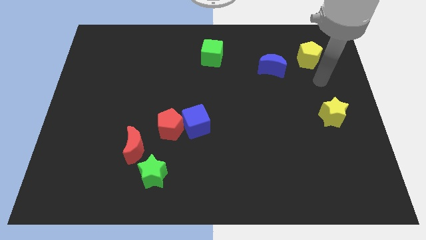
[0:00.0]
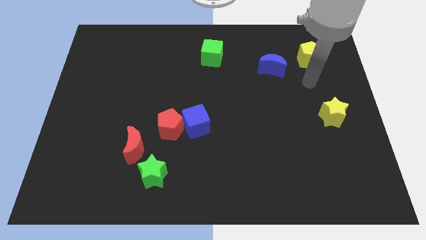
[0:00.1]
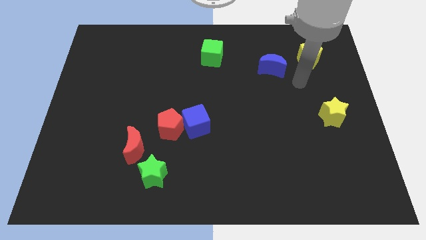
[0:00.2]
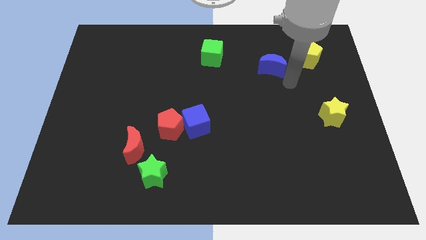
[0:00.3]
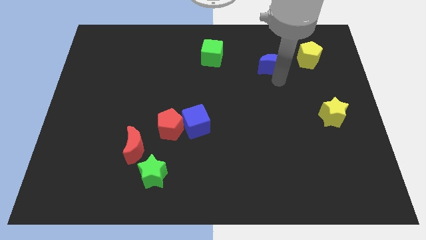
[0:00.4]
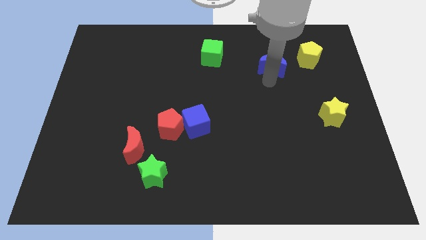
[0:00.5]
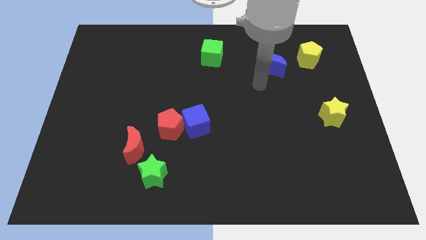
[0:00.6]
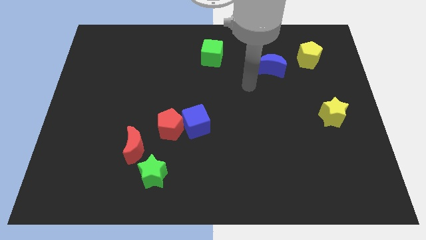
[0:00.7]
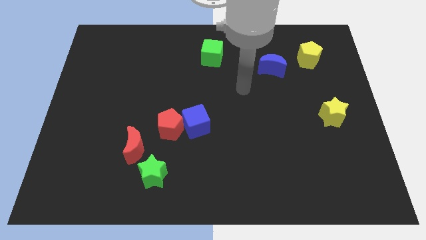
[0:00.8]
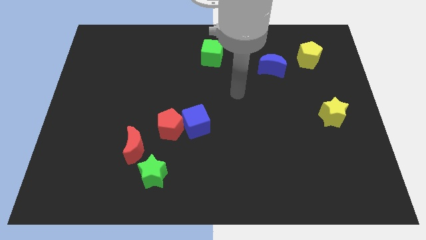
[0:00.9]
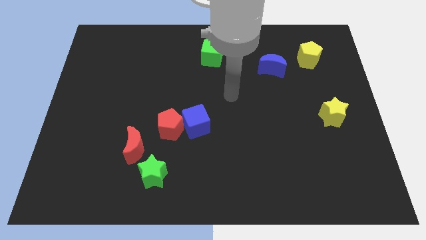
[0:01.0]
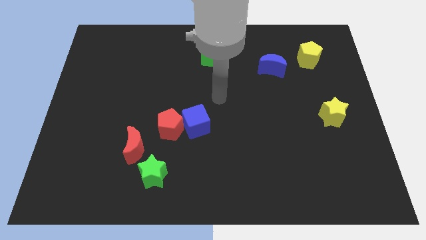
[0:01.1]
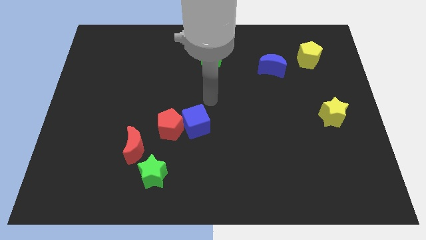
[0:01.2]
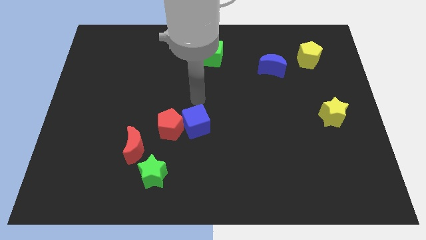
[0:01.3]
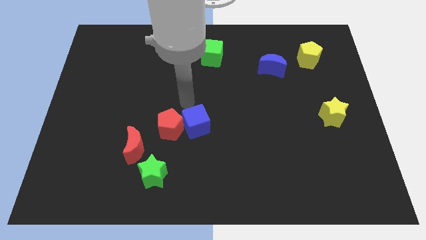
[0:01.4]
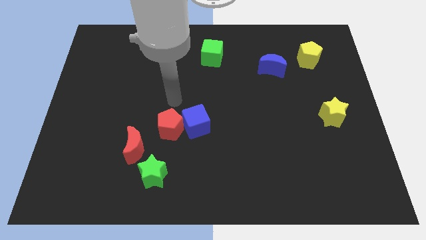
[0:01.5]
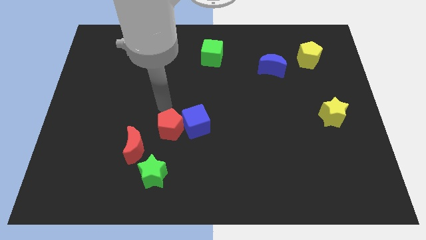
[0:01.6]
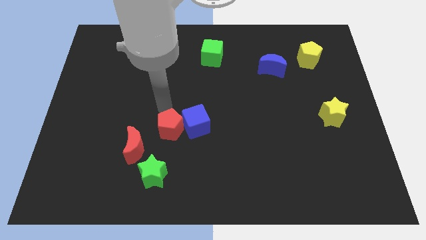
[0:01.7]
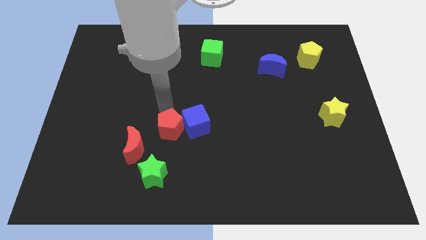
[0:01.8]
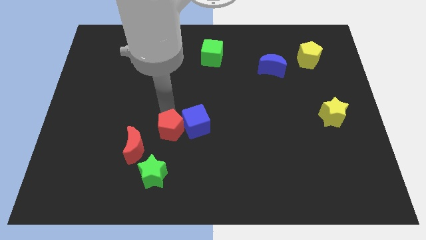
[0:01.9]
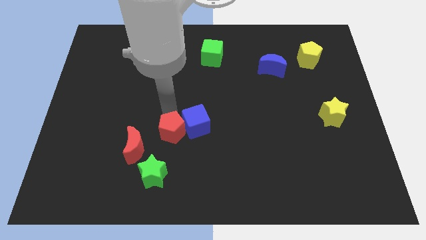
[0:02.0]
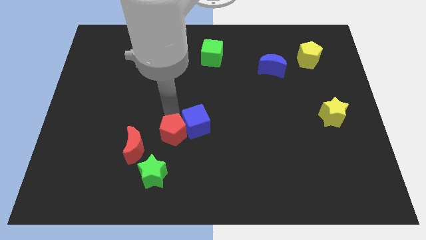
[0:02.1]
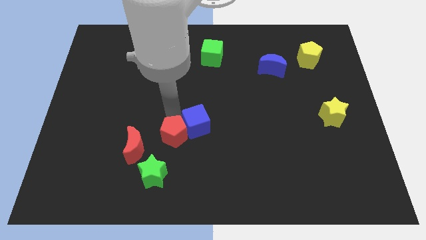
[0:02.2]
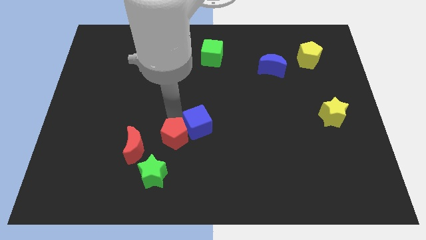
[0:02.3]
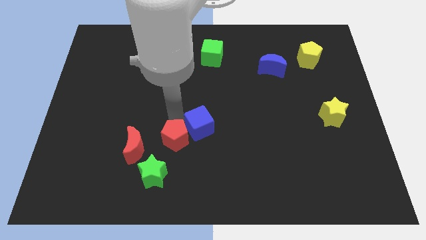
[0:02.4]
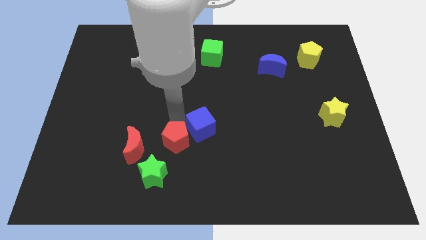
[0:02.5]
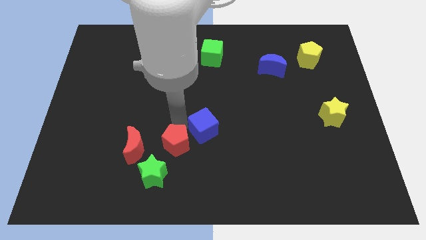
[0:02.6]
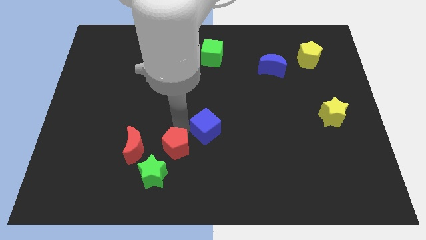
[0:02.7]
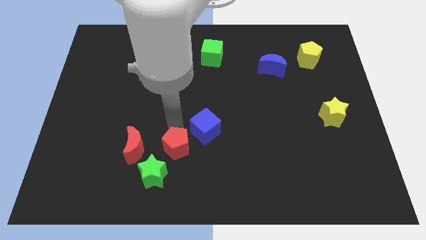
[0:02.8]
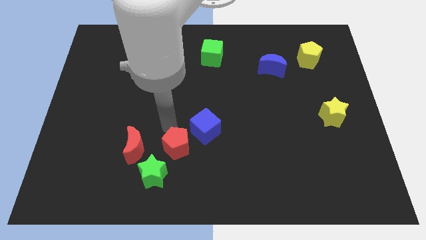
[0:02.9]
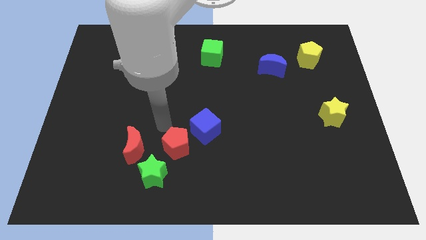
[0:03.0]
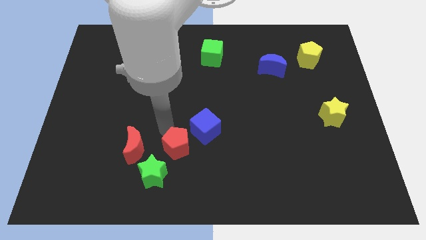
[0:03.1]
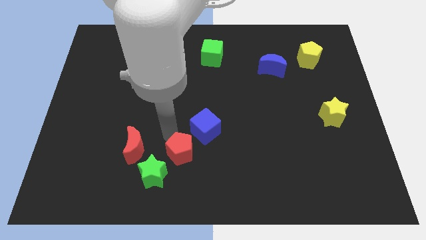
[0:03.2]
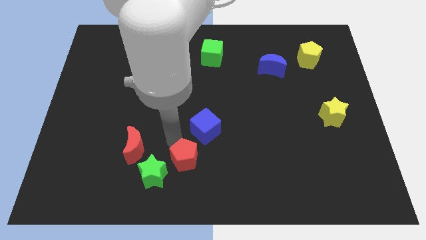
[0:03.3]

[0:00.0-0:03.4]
push the red pentagon downwards and then to the right slightly

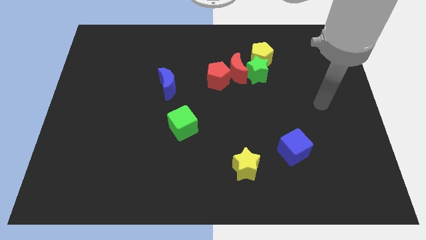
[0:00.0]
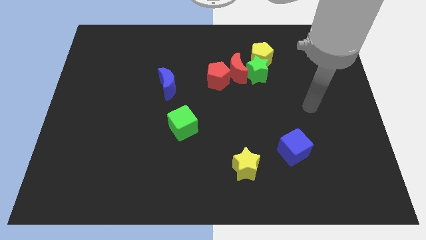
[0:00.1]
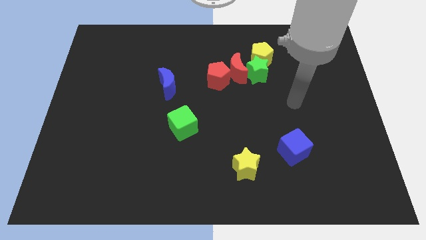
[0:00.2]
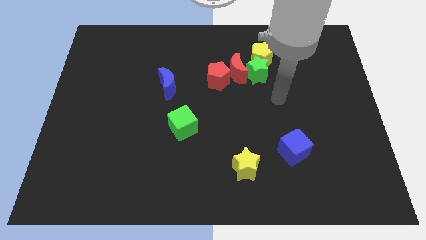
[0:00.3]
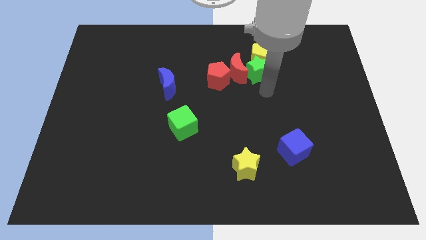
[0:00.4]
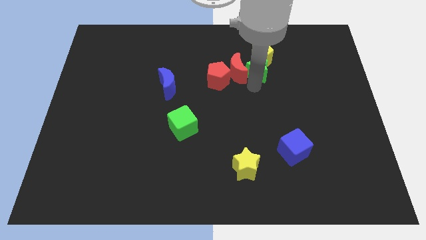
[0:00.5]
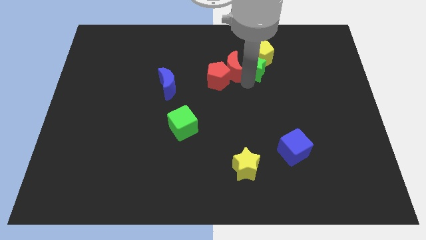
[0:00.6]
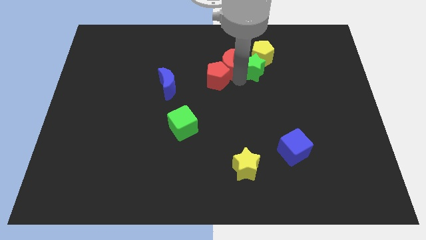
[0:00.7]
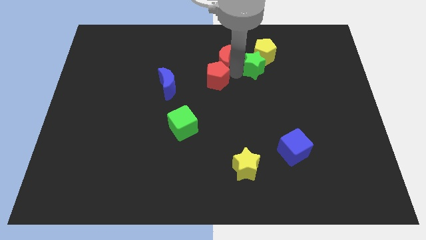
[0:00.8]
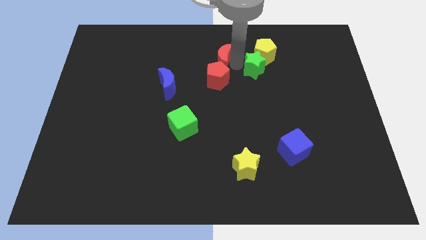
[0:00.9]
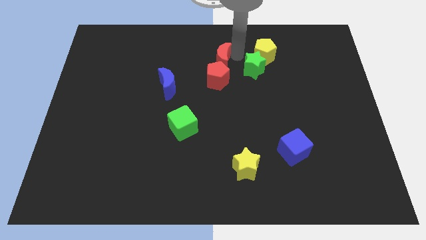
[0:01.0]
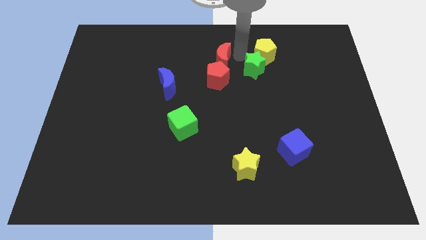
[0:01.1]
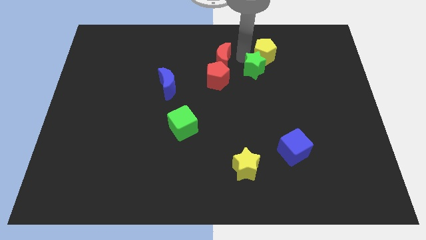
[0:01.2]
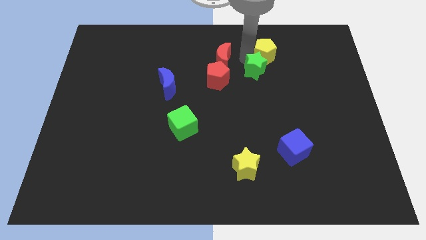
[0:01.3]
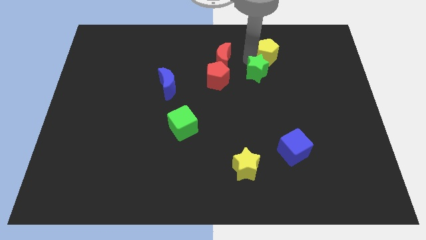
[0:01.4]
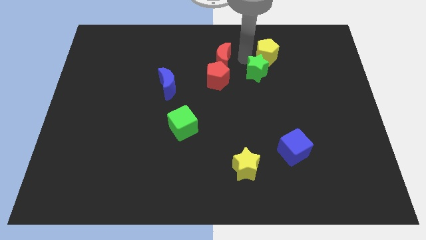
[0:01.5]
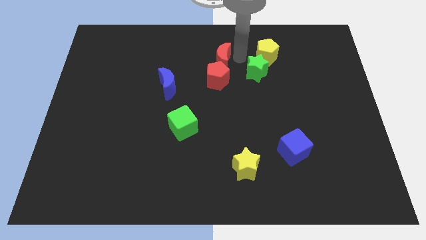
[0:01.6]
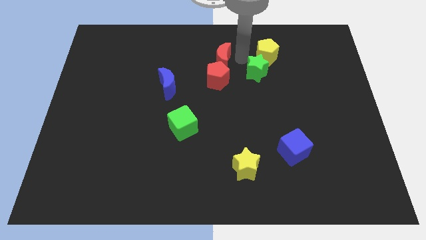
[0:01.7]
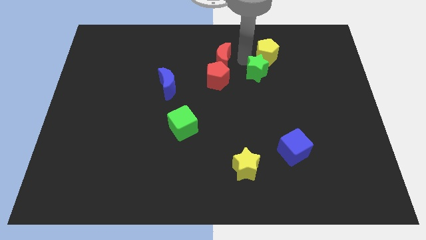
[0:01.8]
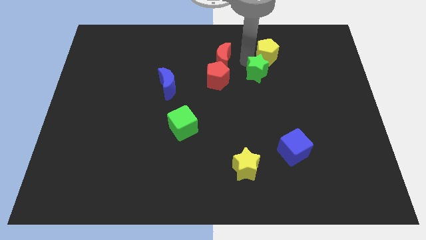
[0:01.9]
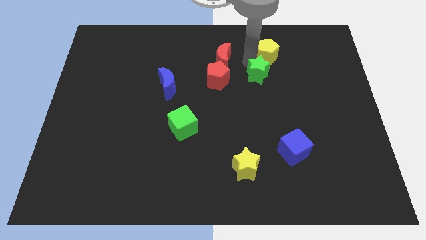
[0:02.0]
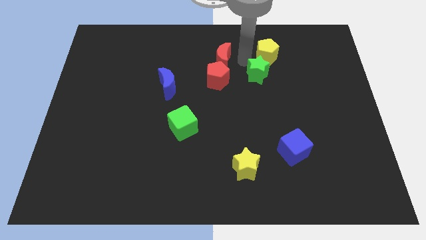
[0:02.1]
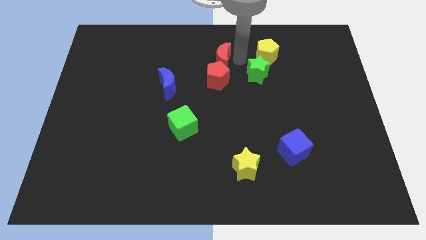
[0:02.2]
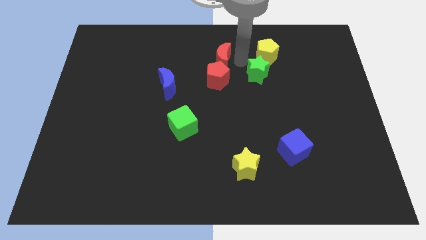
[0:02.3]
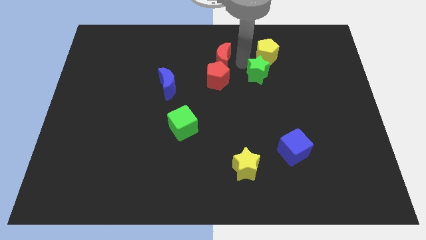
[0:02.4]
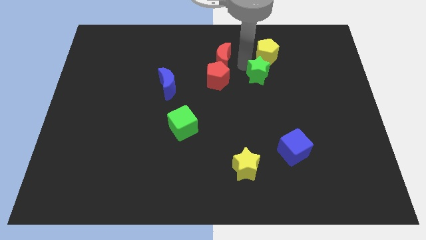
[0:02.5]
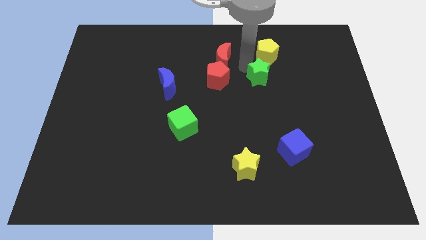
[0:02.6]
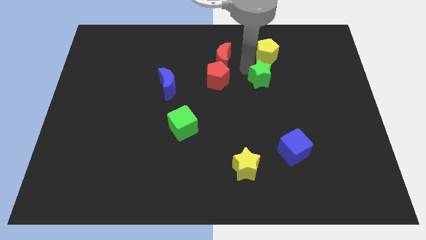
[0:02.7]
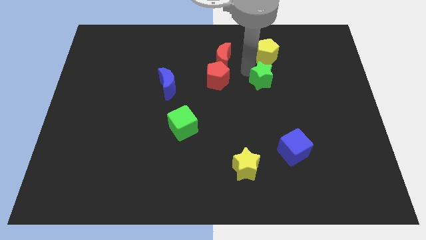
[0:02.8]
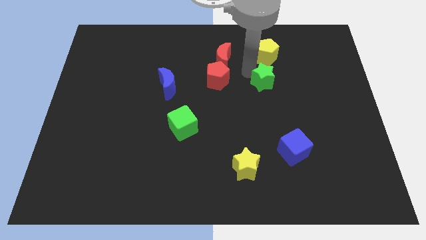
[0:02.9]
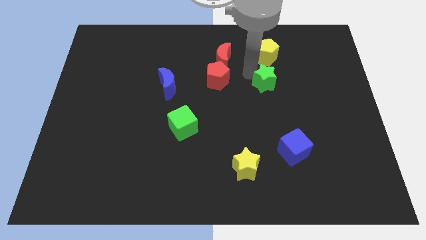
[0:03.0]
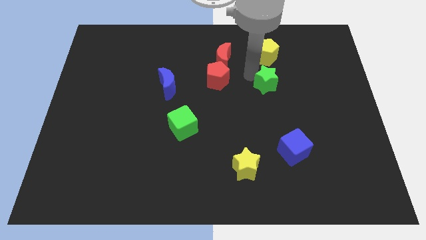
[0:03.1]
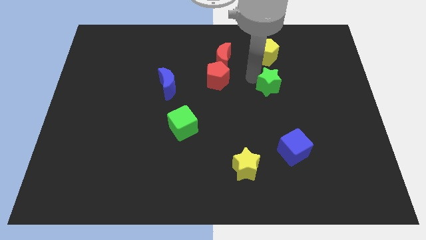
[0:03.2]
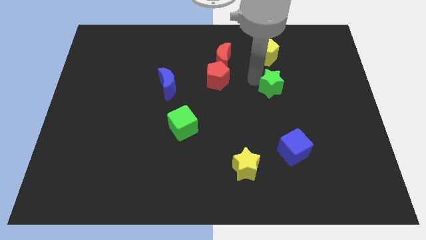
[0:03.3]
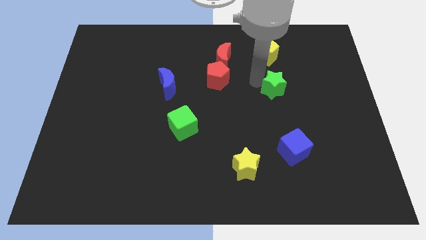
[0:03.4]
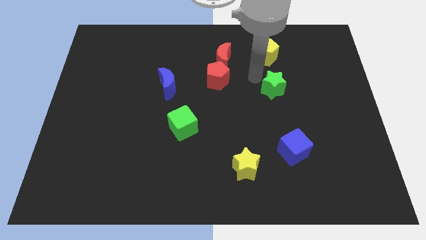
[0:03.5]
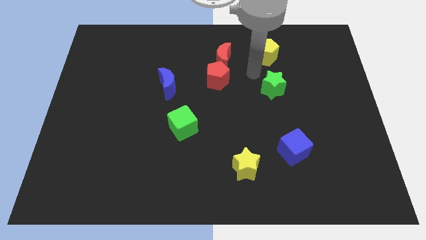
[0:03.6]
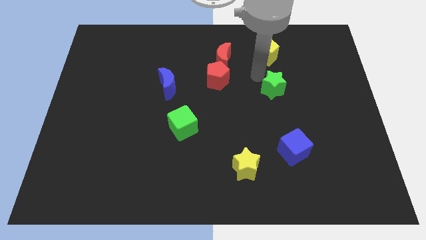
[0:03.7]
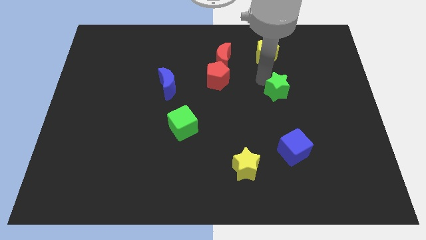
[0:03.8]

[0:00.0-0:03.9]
slide the green star down and right diagonally somewhat

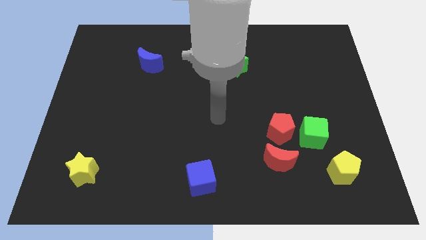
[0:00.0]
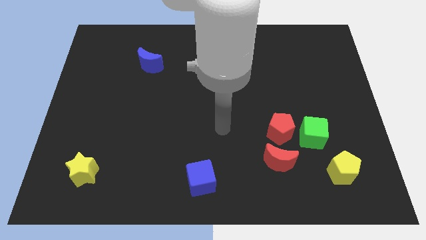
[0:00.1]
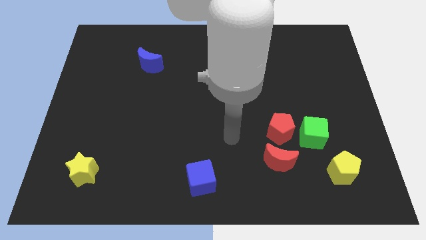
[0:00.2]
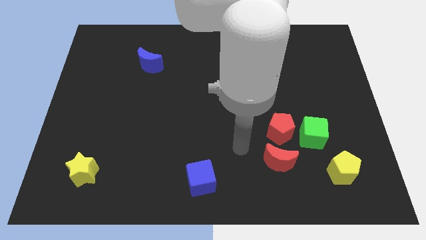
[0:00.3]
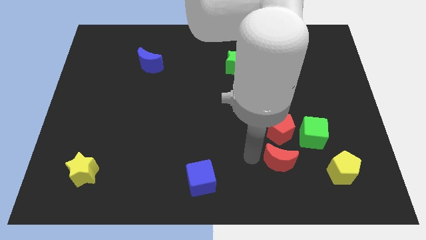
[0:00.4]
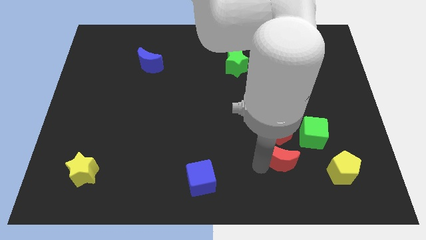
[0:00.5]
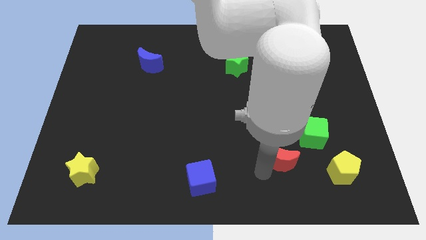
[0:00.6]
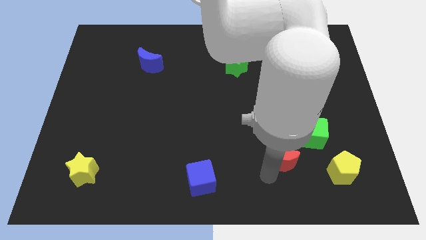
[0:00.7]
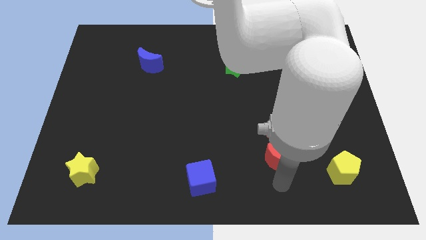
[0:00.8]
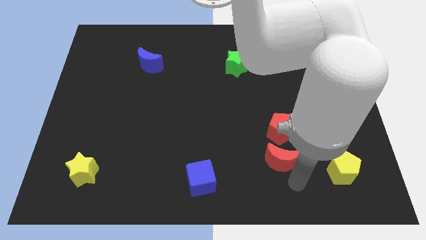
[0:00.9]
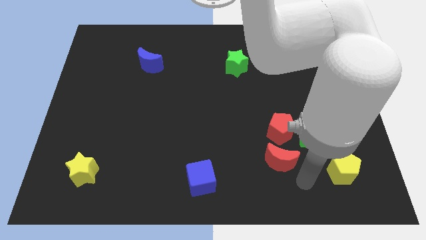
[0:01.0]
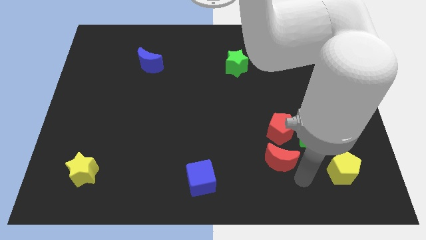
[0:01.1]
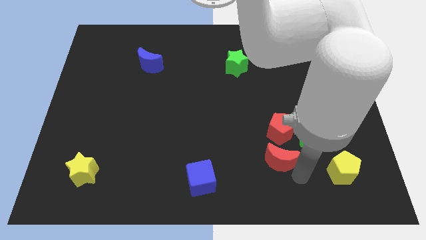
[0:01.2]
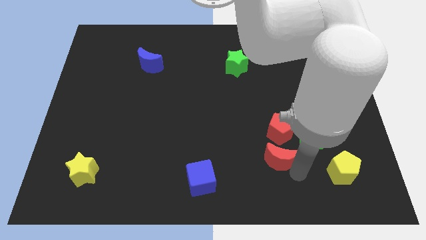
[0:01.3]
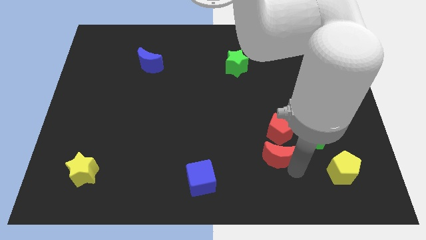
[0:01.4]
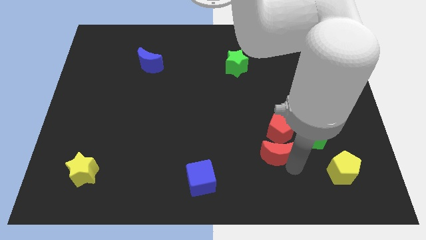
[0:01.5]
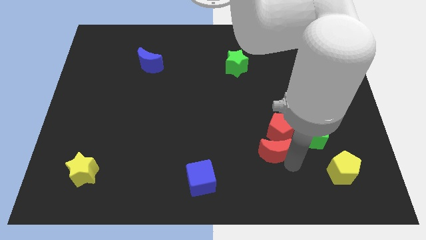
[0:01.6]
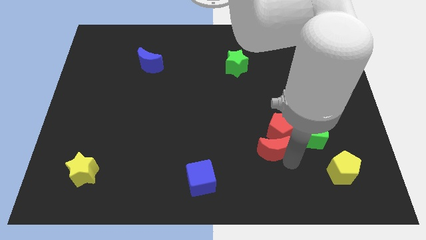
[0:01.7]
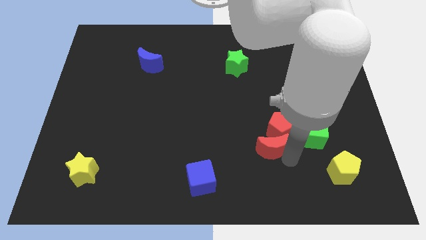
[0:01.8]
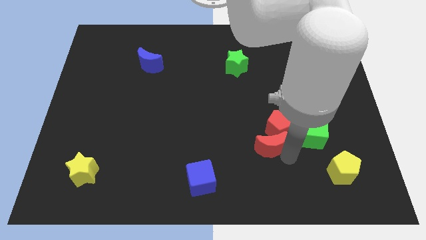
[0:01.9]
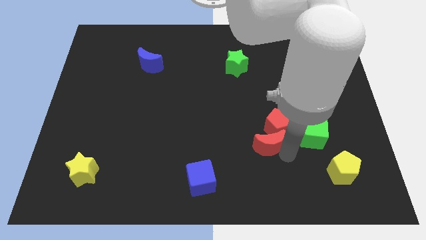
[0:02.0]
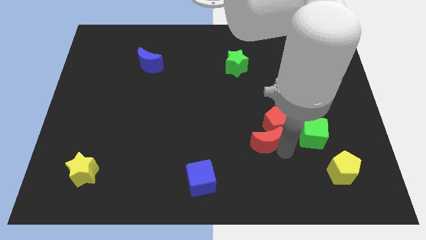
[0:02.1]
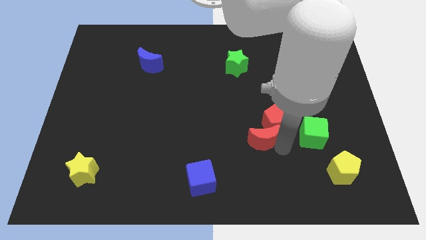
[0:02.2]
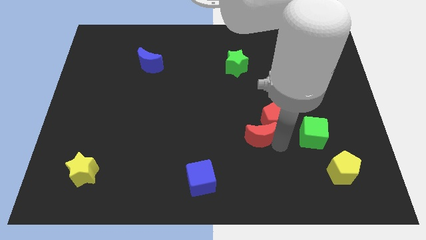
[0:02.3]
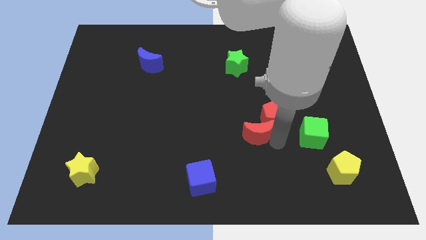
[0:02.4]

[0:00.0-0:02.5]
move the red moon slightly upwards and left
